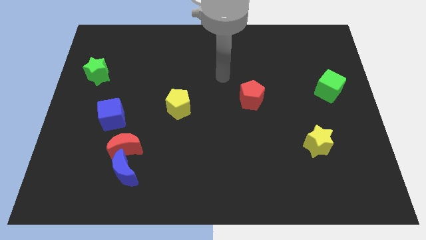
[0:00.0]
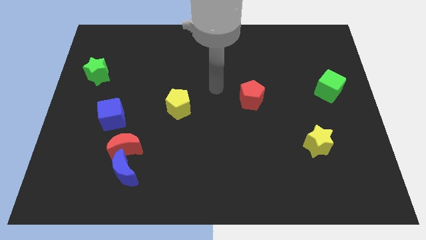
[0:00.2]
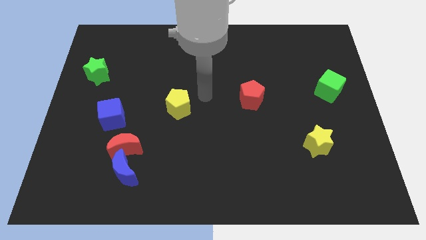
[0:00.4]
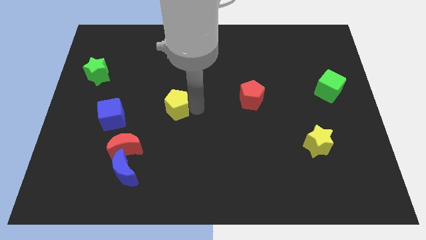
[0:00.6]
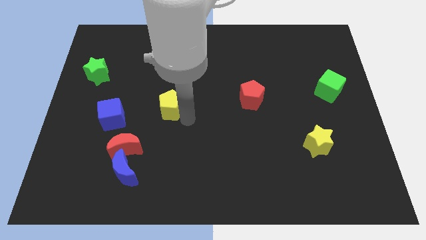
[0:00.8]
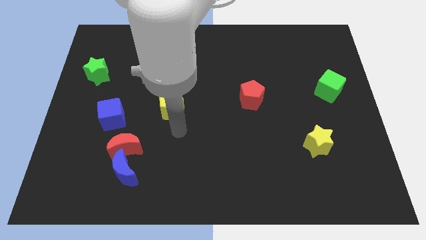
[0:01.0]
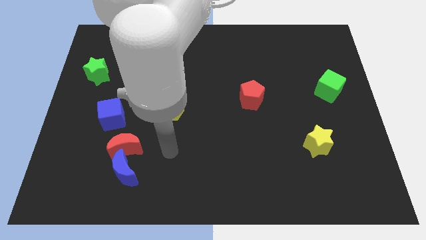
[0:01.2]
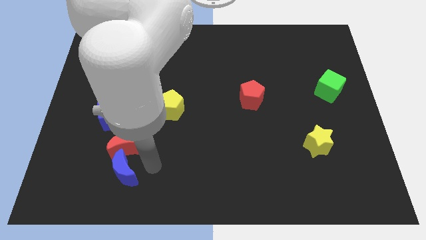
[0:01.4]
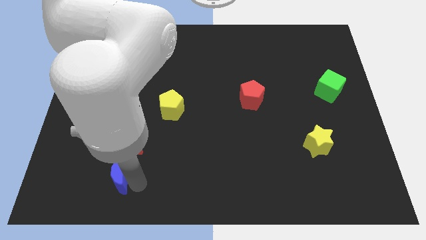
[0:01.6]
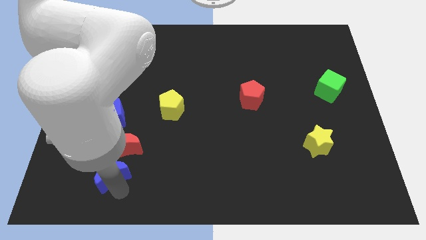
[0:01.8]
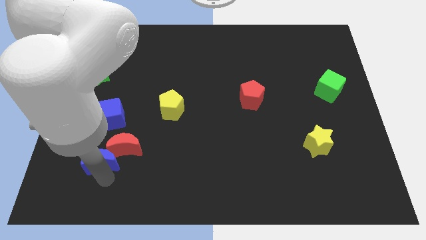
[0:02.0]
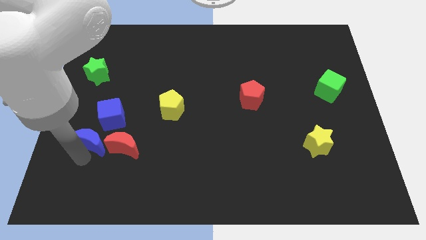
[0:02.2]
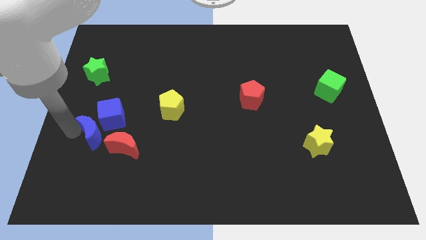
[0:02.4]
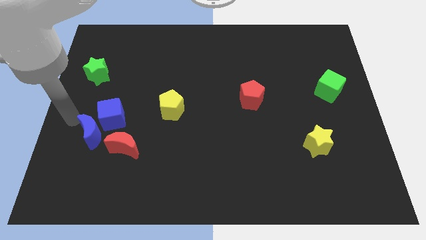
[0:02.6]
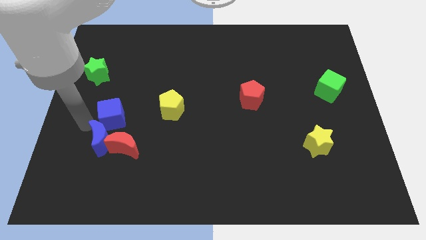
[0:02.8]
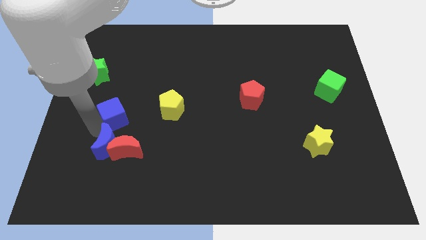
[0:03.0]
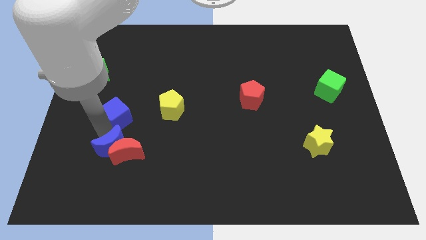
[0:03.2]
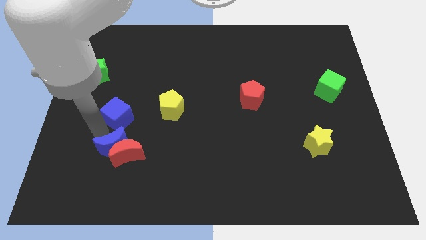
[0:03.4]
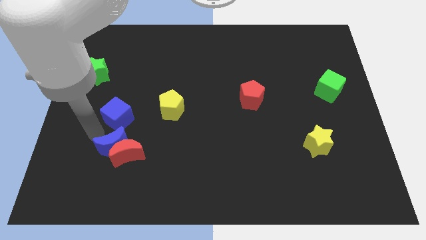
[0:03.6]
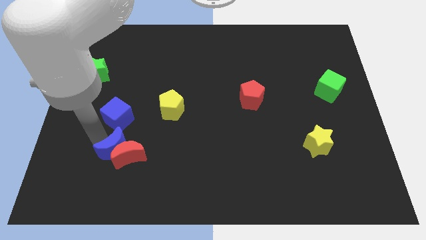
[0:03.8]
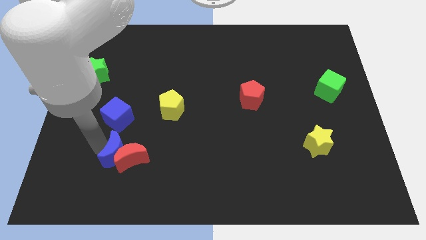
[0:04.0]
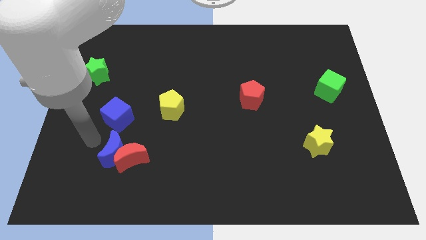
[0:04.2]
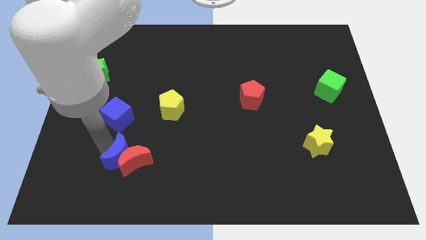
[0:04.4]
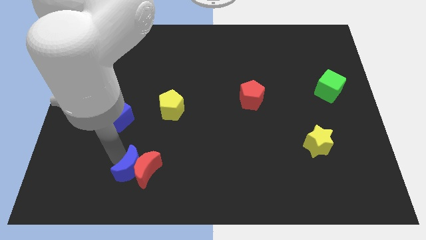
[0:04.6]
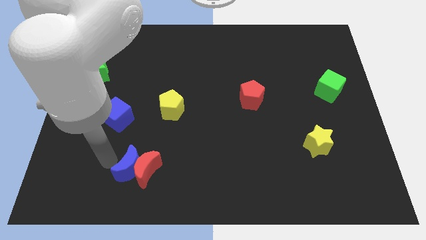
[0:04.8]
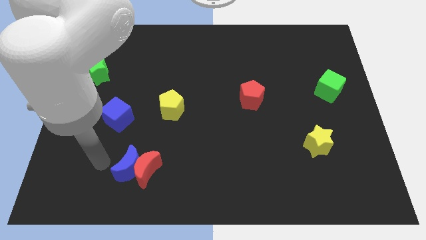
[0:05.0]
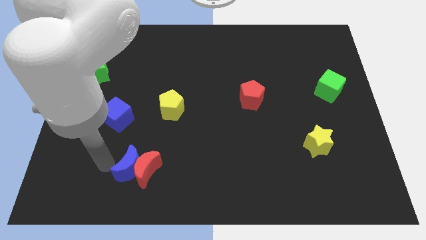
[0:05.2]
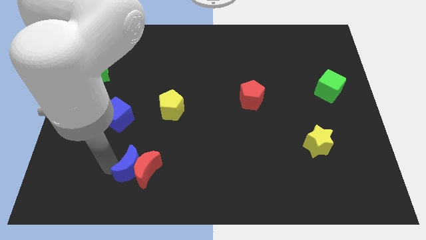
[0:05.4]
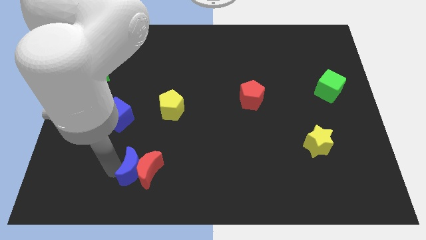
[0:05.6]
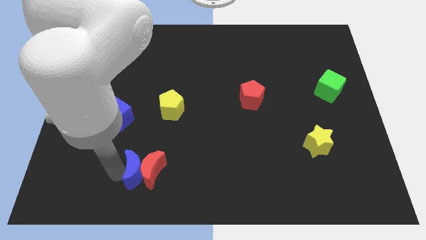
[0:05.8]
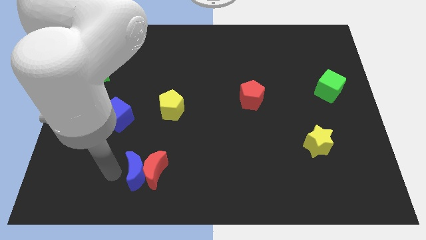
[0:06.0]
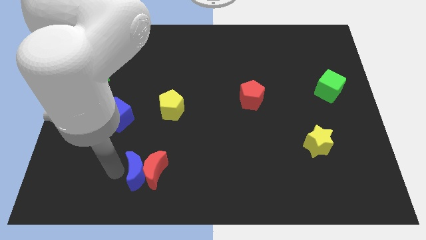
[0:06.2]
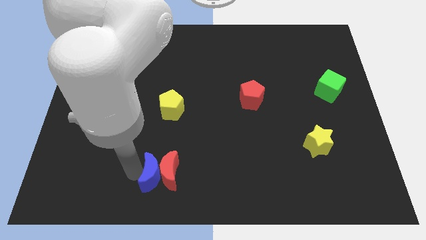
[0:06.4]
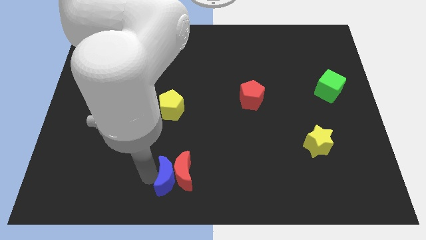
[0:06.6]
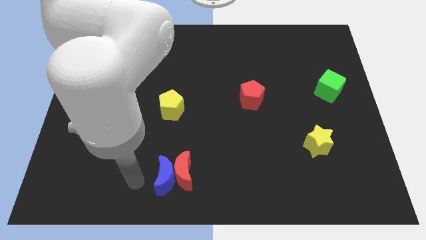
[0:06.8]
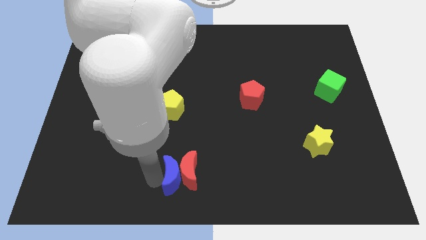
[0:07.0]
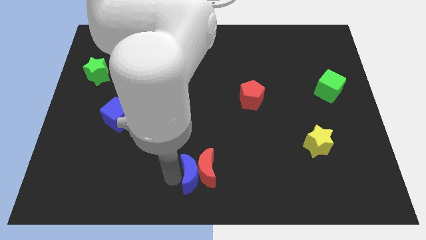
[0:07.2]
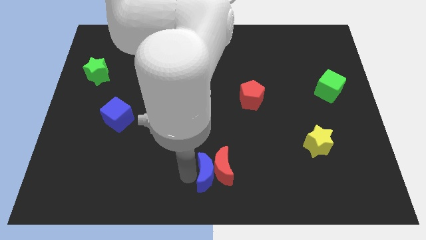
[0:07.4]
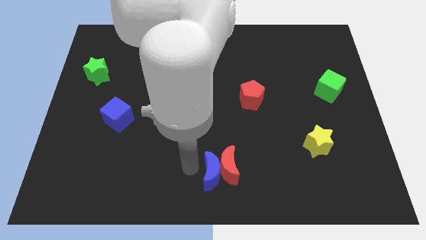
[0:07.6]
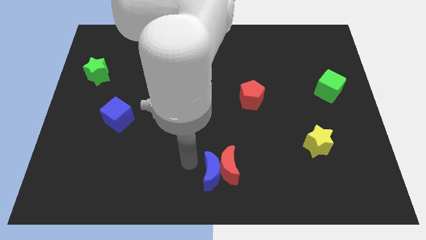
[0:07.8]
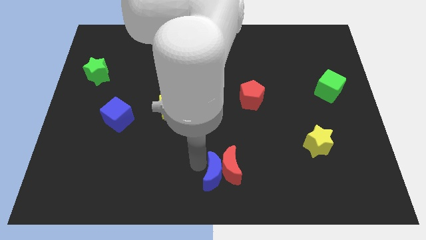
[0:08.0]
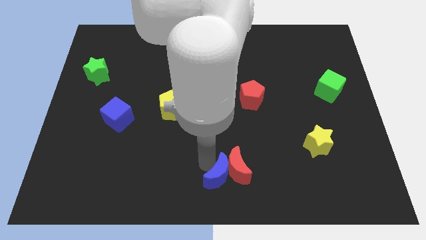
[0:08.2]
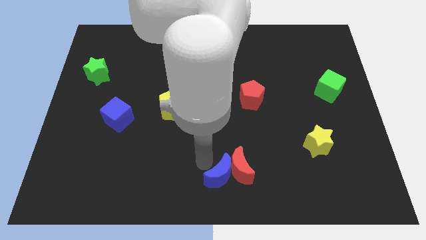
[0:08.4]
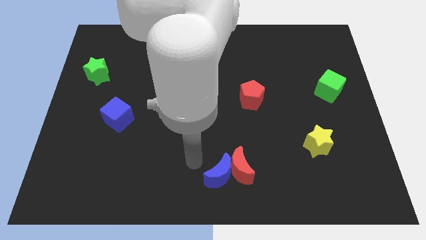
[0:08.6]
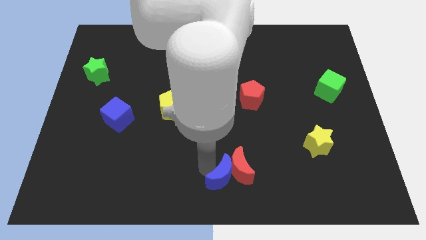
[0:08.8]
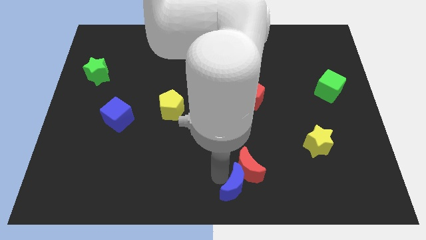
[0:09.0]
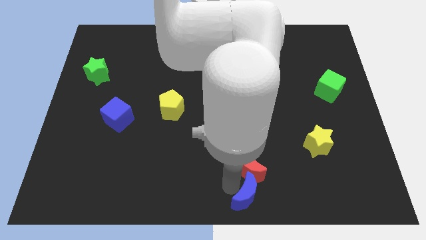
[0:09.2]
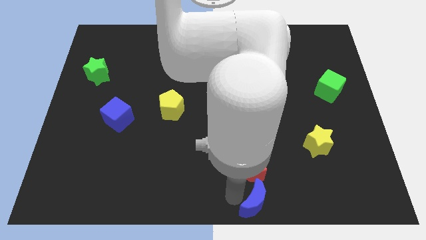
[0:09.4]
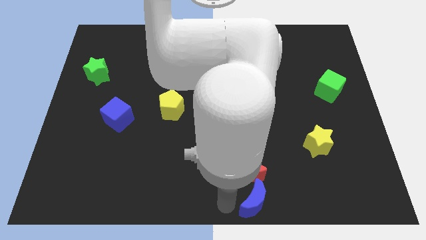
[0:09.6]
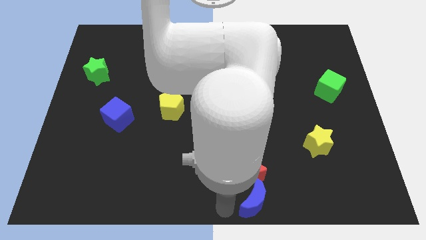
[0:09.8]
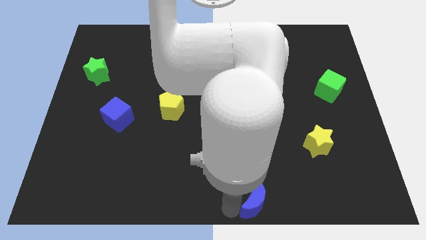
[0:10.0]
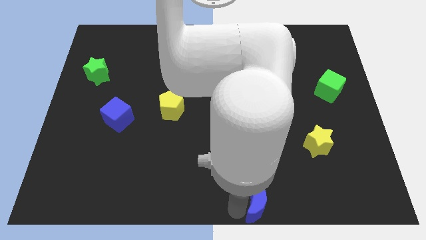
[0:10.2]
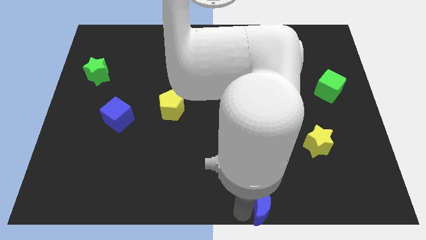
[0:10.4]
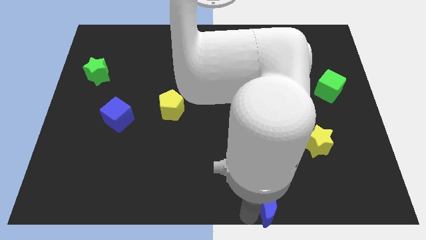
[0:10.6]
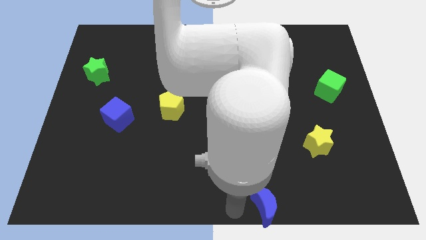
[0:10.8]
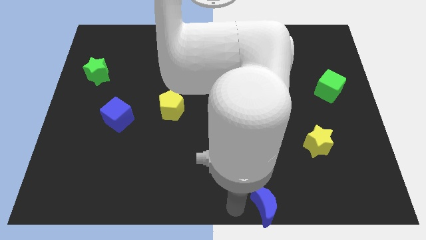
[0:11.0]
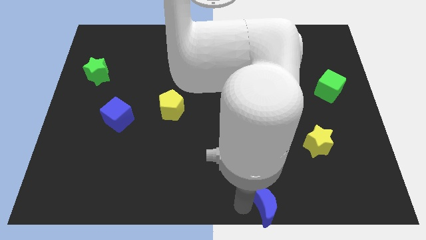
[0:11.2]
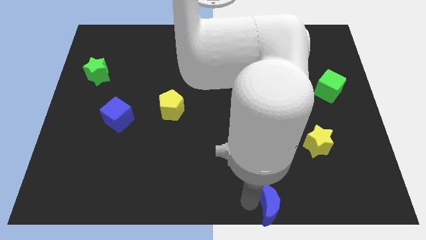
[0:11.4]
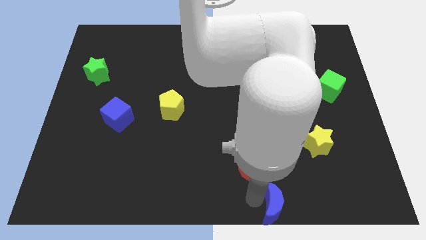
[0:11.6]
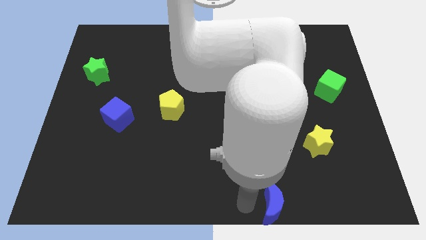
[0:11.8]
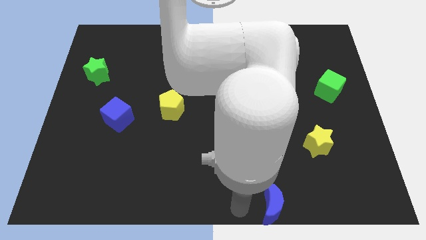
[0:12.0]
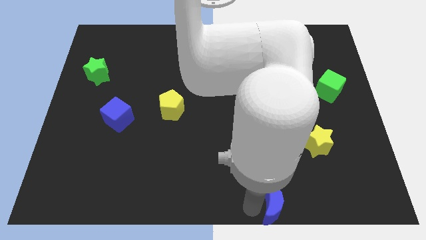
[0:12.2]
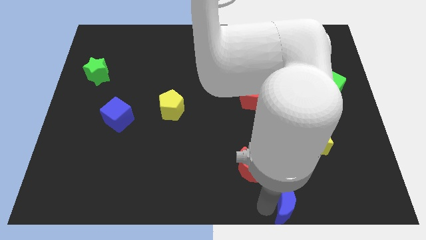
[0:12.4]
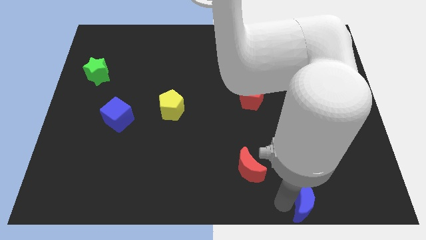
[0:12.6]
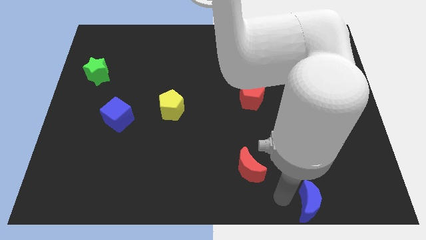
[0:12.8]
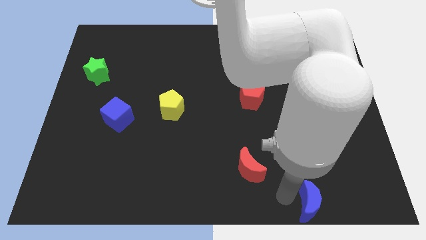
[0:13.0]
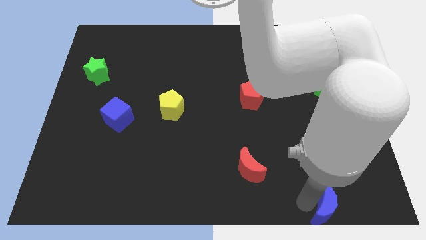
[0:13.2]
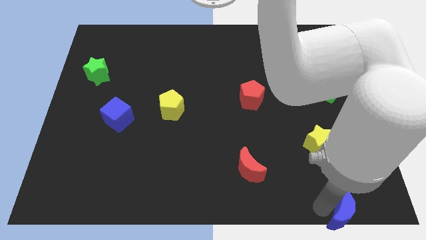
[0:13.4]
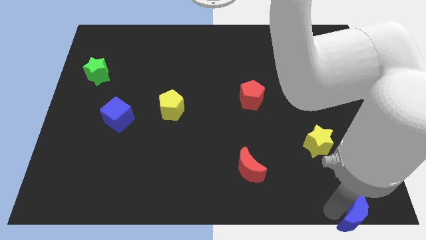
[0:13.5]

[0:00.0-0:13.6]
slide the blue moon to the bottom right of the board
